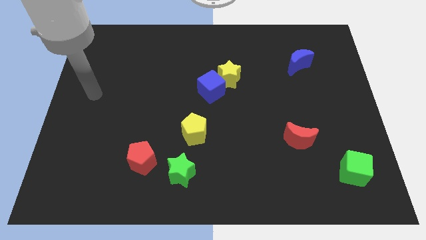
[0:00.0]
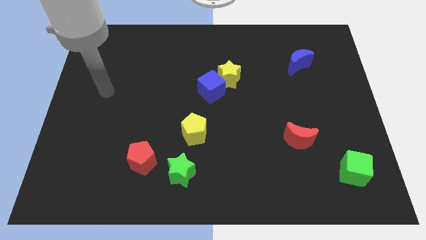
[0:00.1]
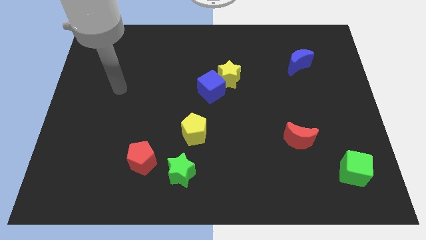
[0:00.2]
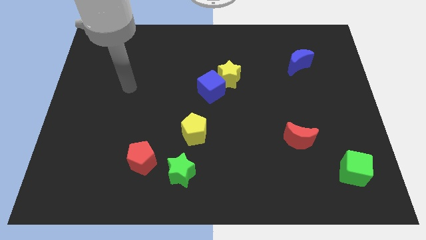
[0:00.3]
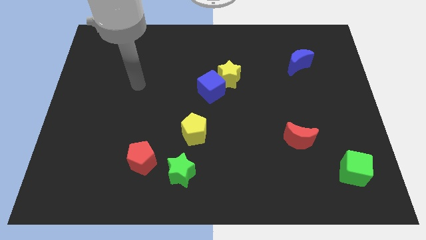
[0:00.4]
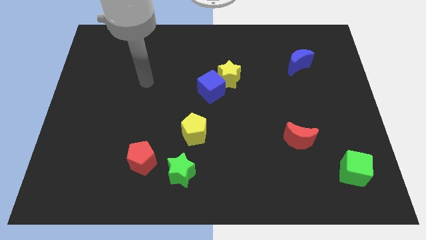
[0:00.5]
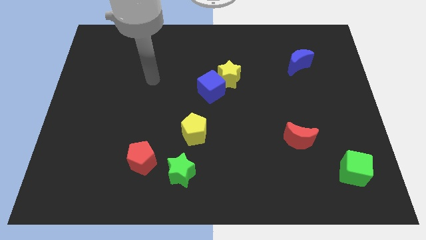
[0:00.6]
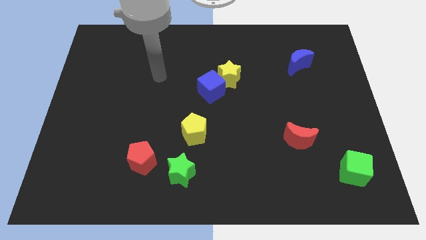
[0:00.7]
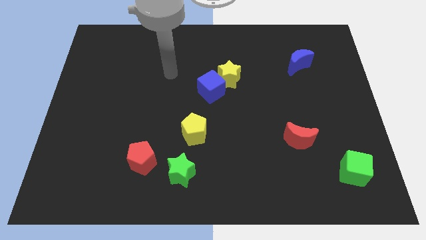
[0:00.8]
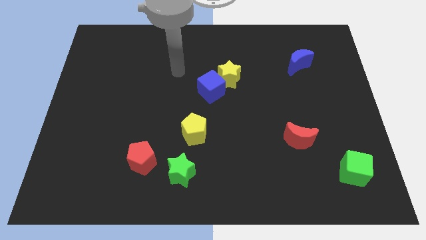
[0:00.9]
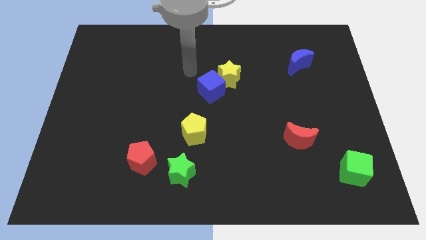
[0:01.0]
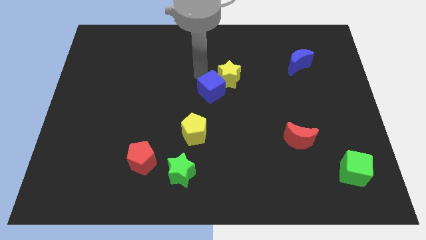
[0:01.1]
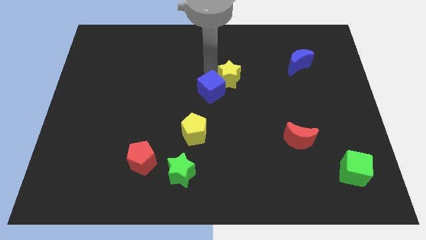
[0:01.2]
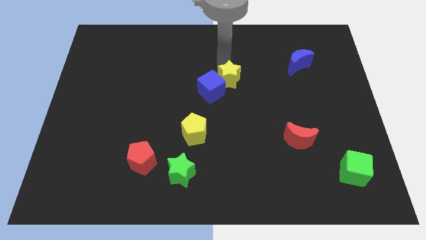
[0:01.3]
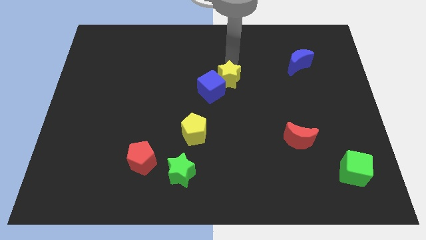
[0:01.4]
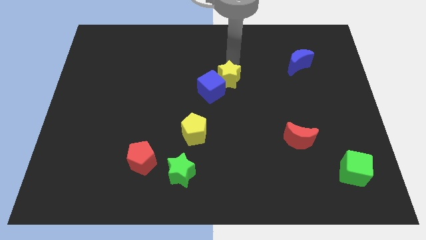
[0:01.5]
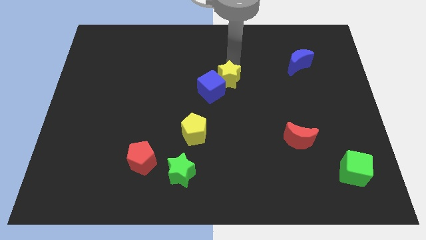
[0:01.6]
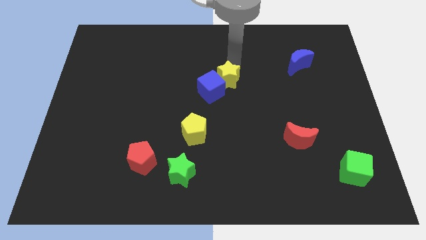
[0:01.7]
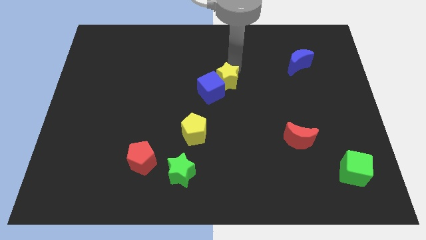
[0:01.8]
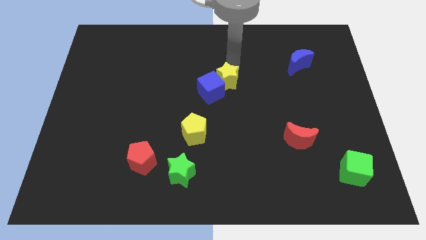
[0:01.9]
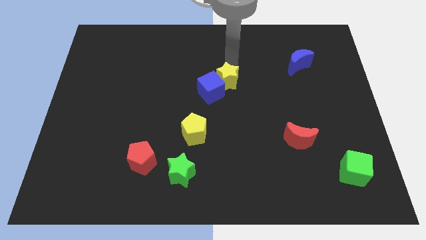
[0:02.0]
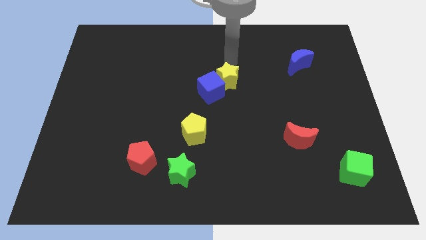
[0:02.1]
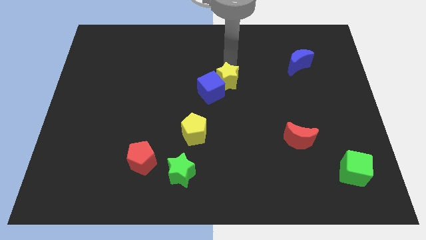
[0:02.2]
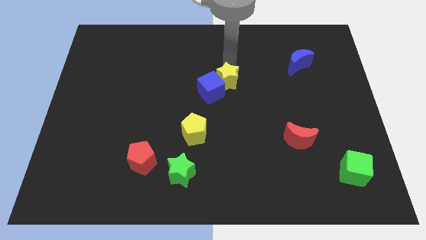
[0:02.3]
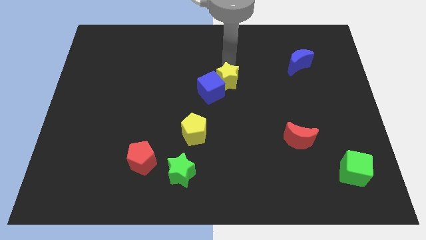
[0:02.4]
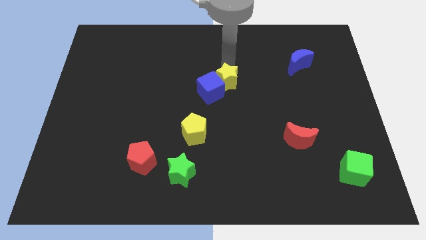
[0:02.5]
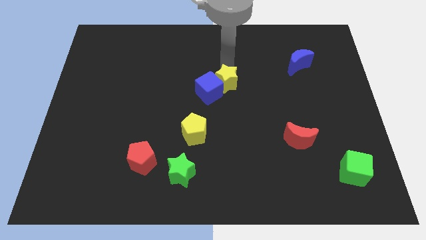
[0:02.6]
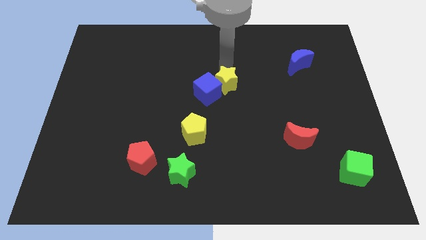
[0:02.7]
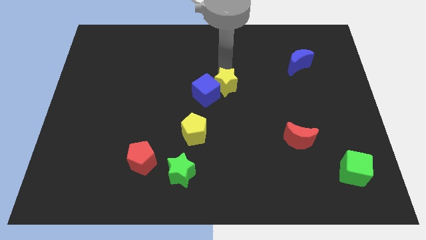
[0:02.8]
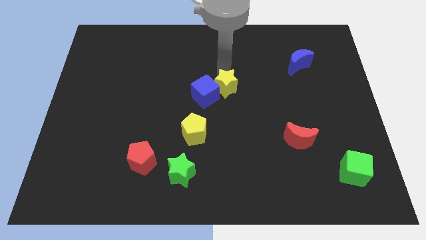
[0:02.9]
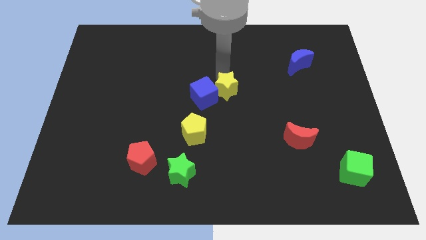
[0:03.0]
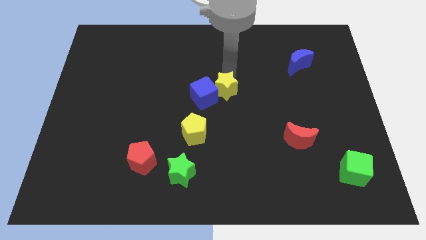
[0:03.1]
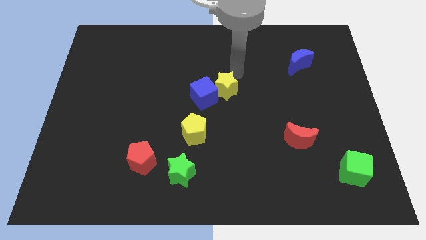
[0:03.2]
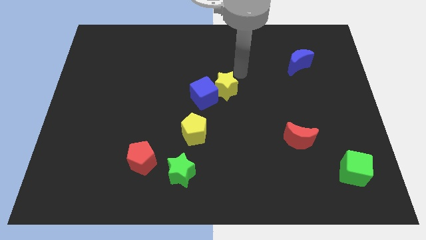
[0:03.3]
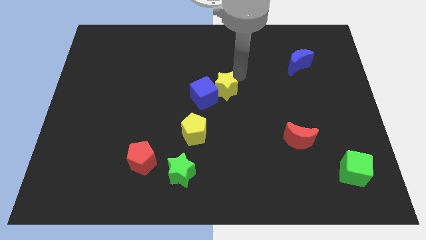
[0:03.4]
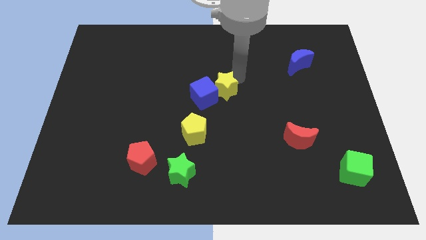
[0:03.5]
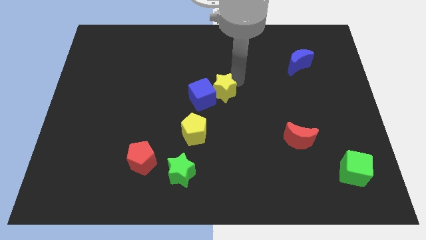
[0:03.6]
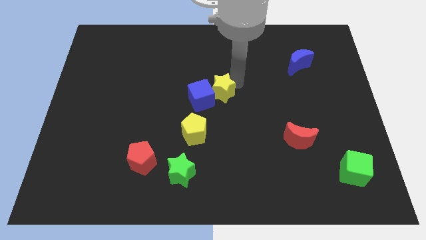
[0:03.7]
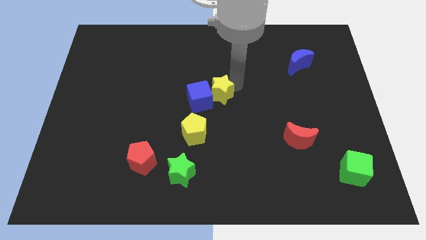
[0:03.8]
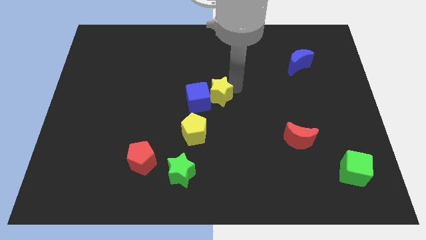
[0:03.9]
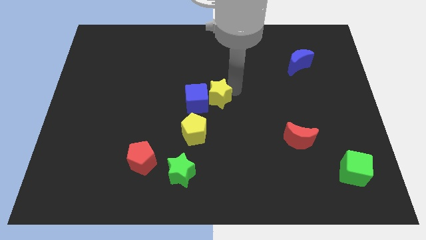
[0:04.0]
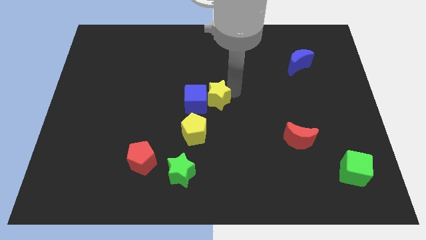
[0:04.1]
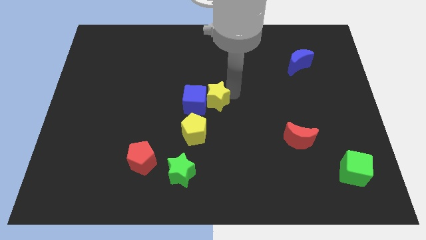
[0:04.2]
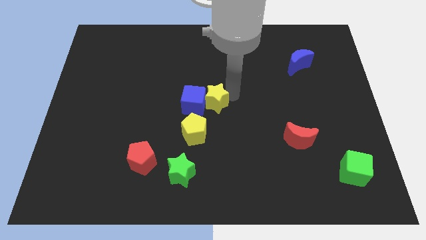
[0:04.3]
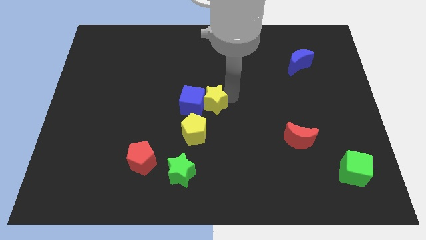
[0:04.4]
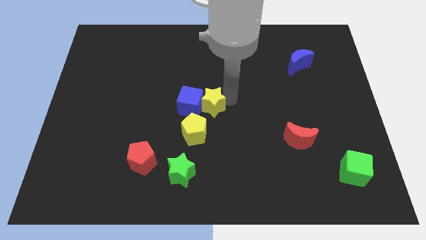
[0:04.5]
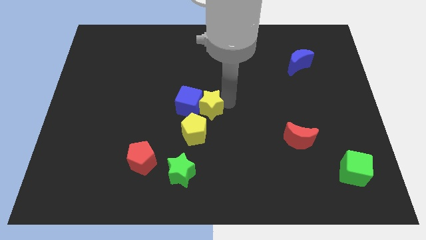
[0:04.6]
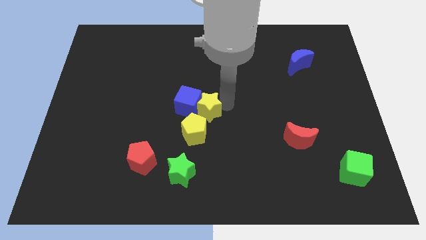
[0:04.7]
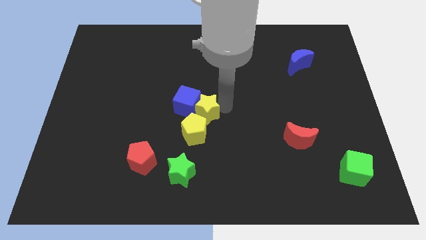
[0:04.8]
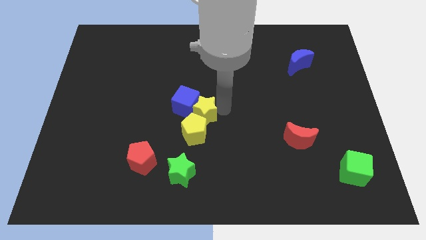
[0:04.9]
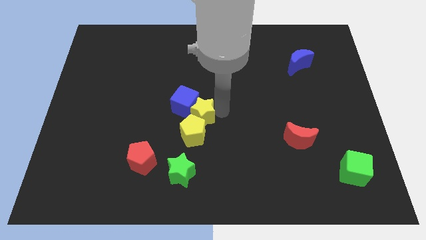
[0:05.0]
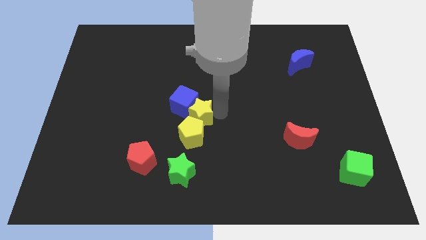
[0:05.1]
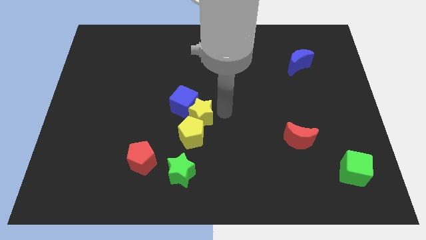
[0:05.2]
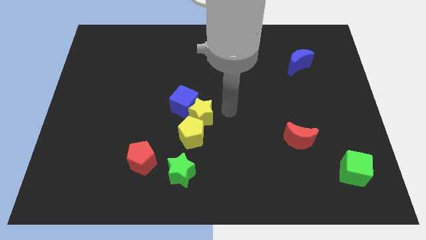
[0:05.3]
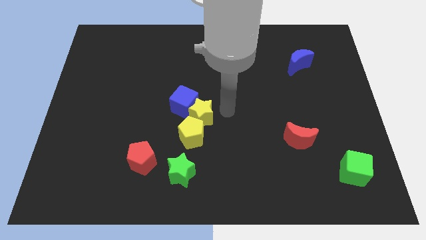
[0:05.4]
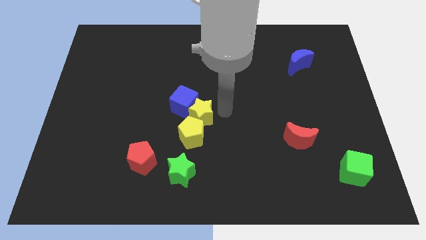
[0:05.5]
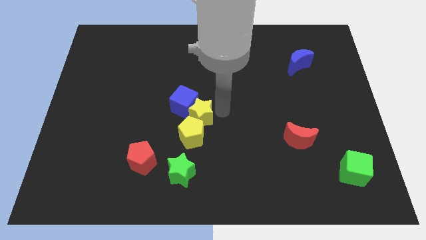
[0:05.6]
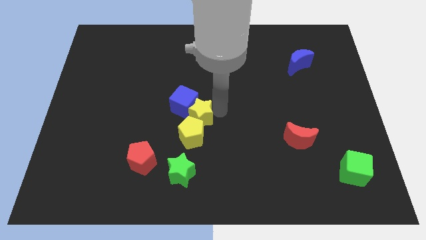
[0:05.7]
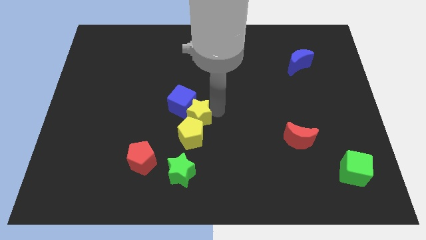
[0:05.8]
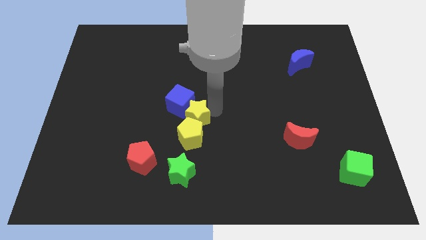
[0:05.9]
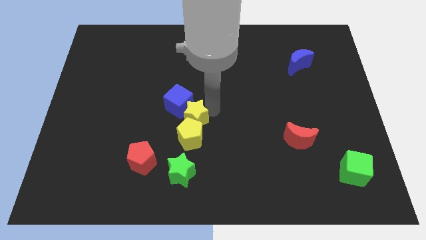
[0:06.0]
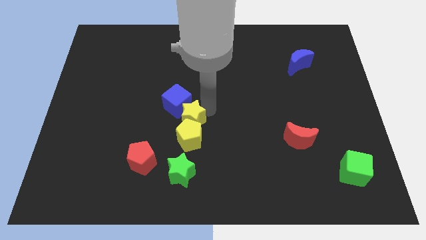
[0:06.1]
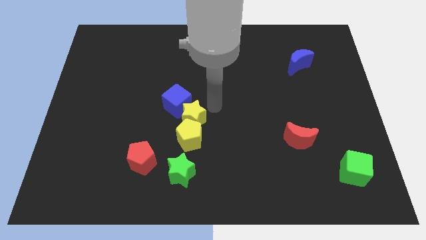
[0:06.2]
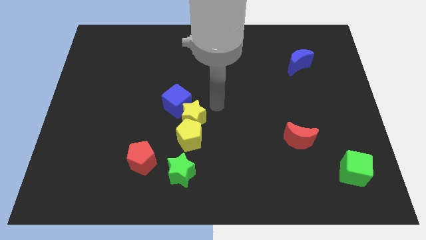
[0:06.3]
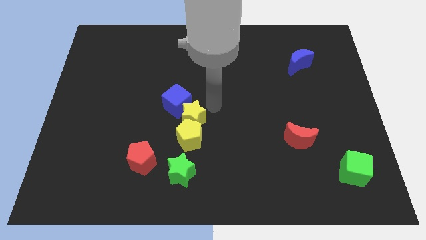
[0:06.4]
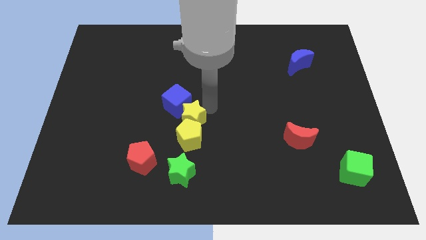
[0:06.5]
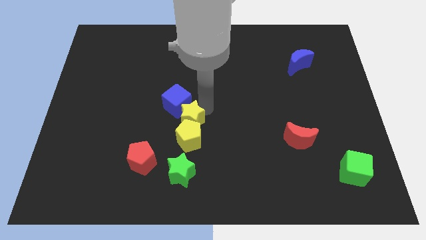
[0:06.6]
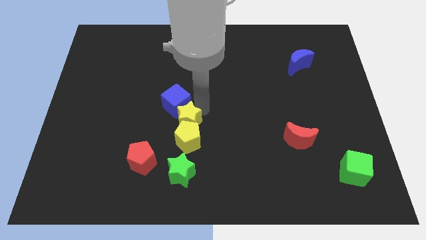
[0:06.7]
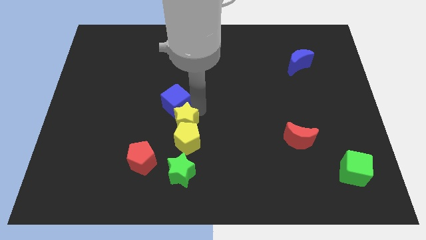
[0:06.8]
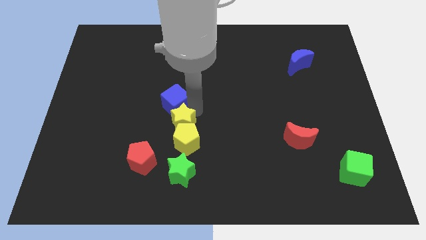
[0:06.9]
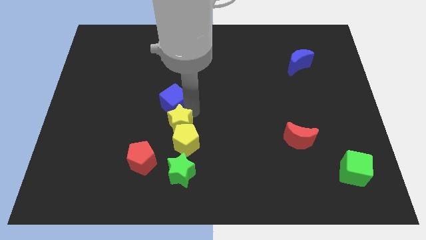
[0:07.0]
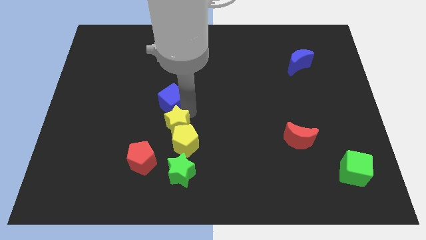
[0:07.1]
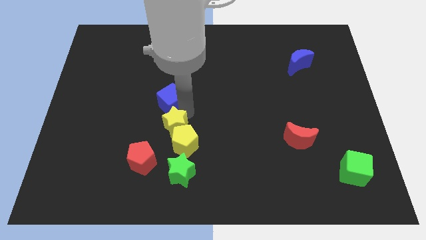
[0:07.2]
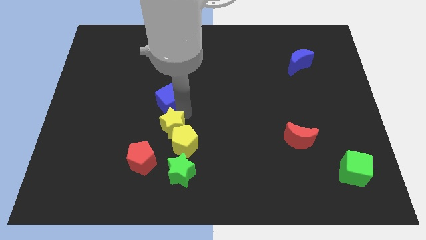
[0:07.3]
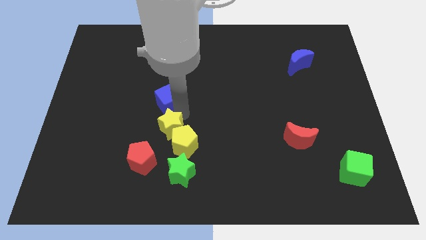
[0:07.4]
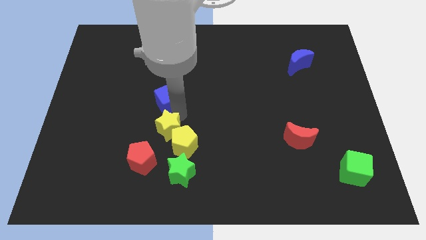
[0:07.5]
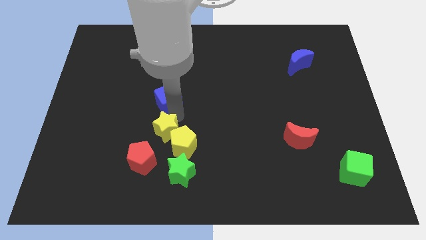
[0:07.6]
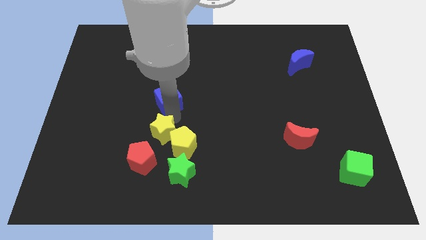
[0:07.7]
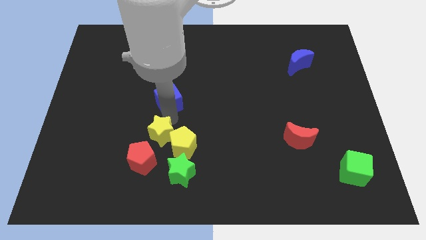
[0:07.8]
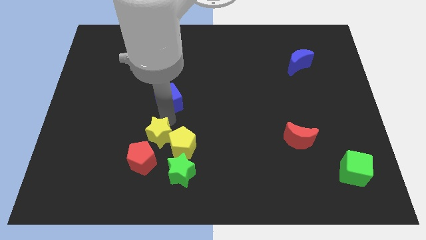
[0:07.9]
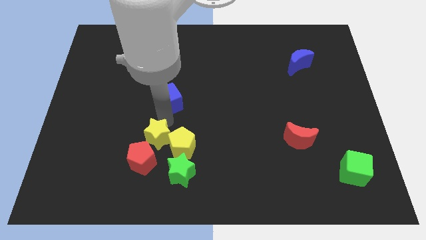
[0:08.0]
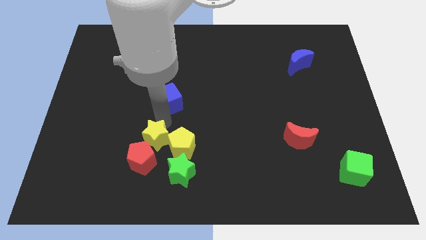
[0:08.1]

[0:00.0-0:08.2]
put the yellow star close to the red pentagon
